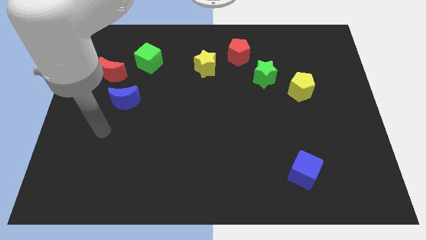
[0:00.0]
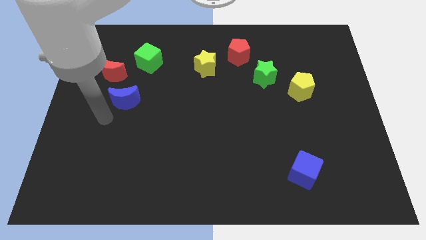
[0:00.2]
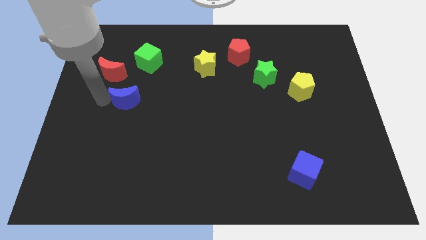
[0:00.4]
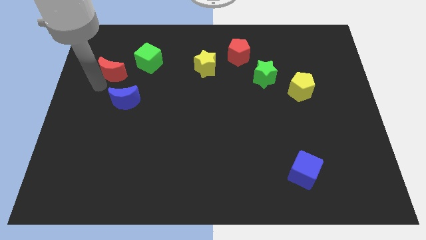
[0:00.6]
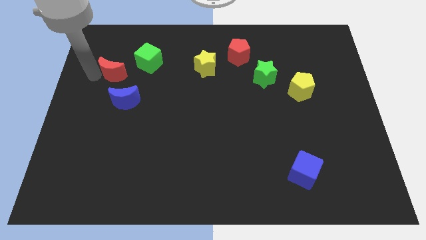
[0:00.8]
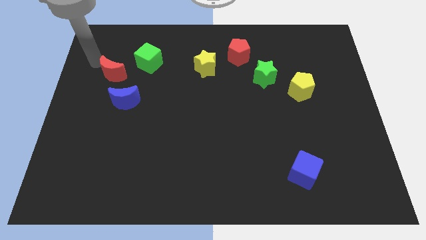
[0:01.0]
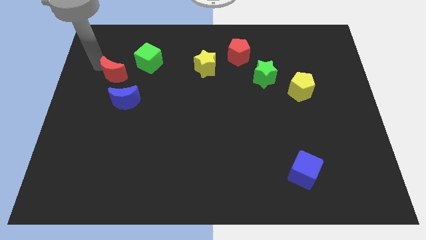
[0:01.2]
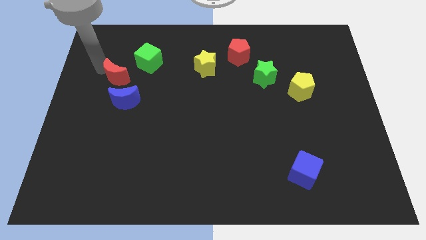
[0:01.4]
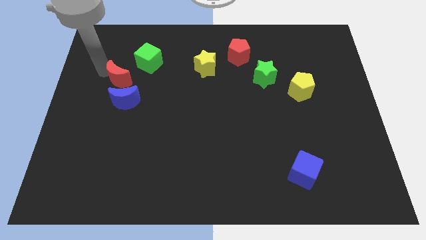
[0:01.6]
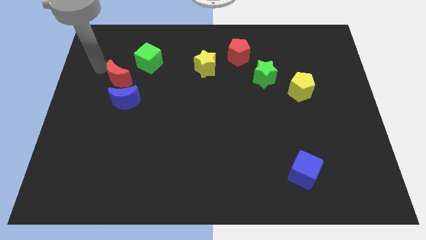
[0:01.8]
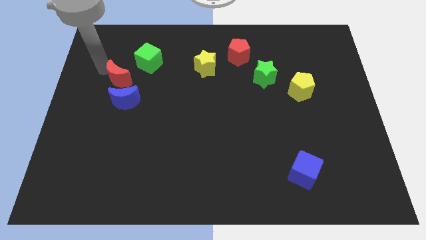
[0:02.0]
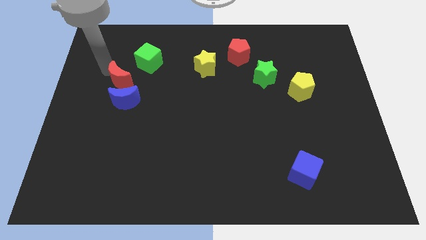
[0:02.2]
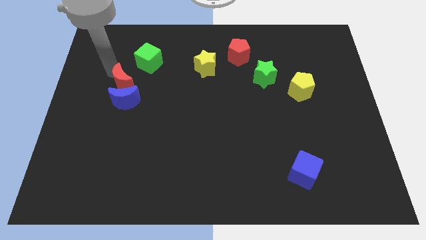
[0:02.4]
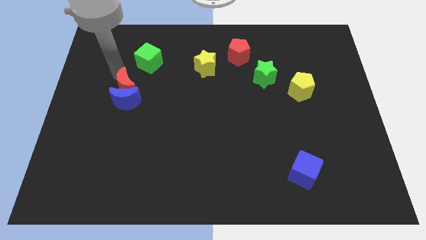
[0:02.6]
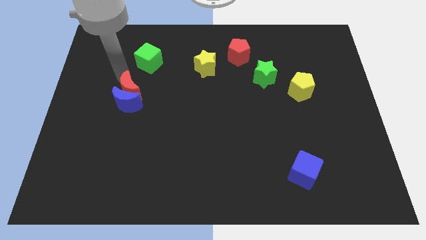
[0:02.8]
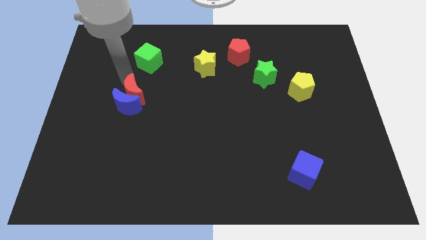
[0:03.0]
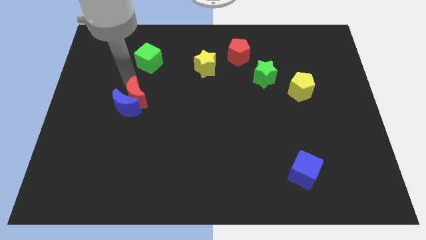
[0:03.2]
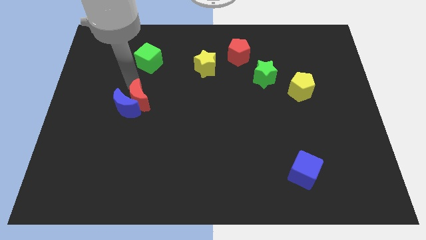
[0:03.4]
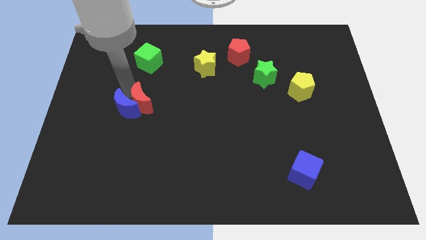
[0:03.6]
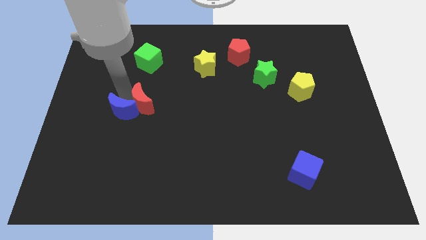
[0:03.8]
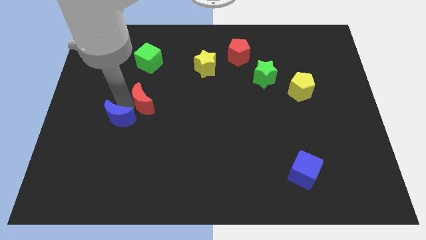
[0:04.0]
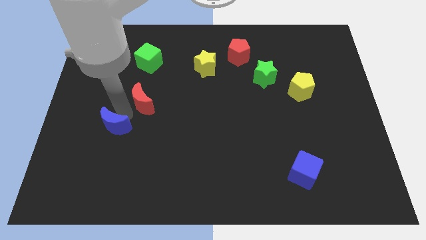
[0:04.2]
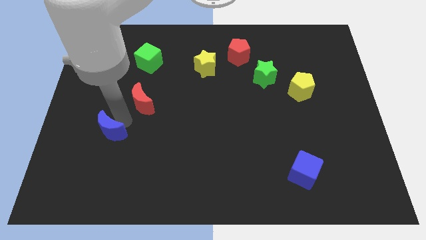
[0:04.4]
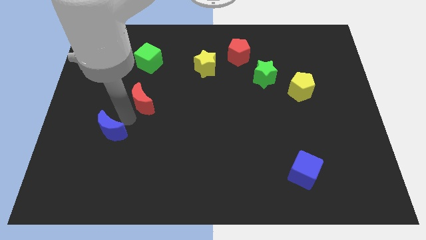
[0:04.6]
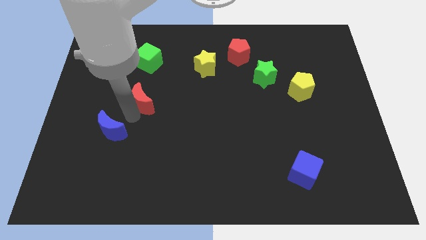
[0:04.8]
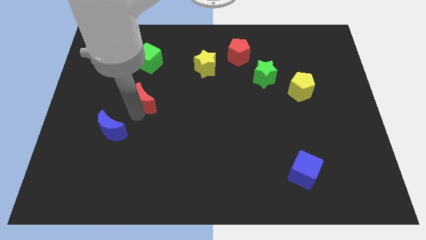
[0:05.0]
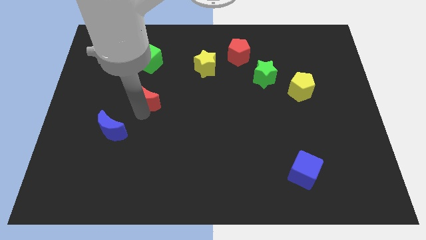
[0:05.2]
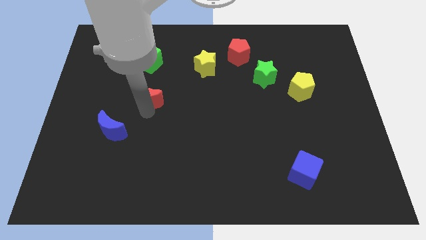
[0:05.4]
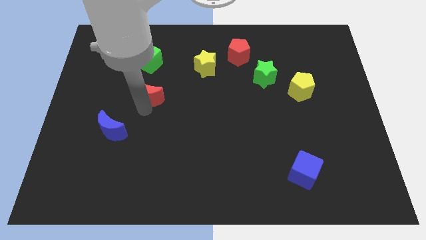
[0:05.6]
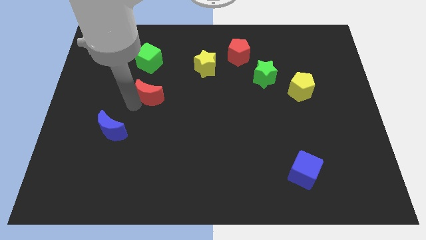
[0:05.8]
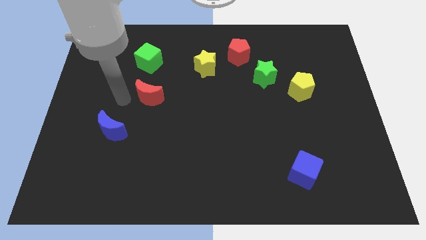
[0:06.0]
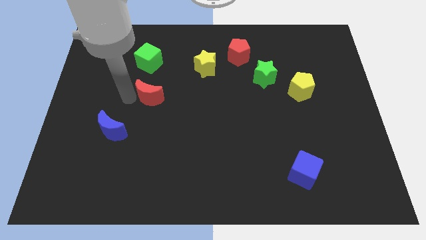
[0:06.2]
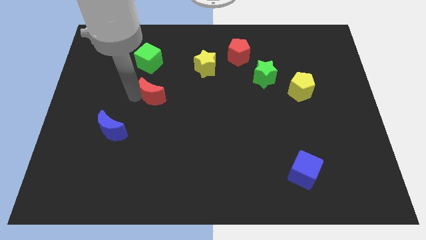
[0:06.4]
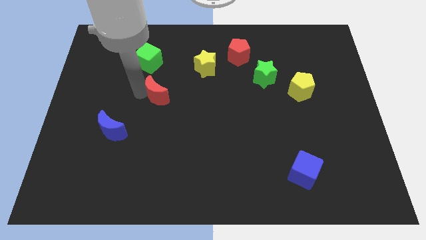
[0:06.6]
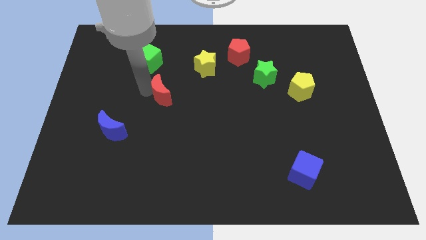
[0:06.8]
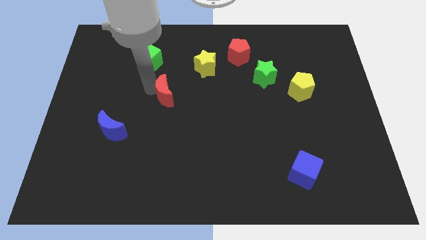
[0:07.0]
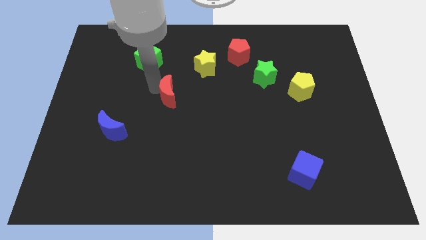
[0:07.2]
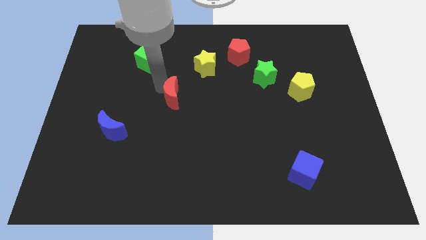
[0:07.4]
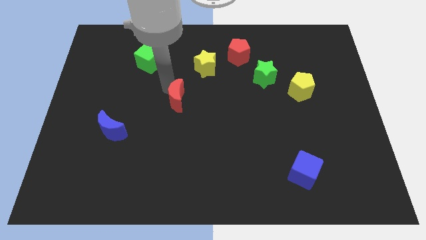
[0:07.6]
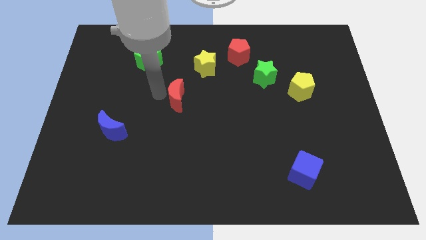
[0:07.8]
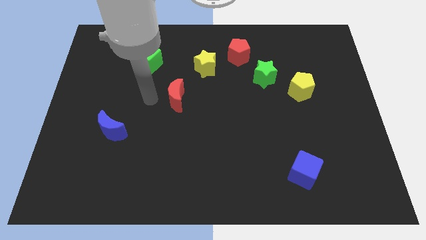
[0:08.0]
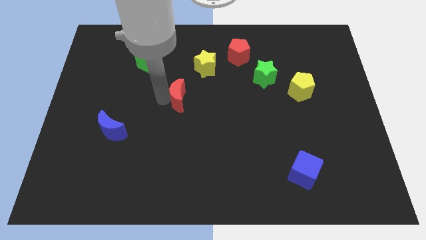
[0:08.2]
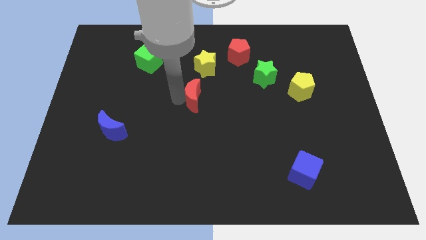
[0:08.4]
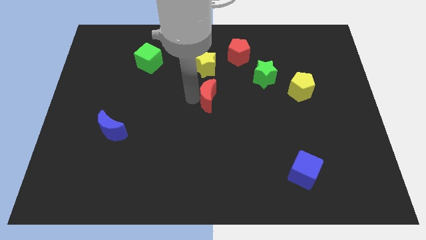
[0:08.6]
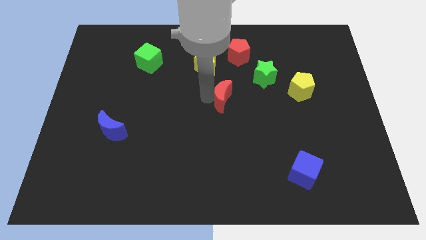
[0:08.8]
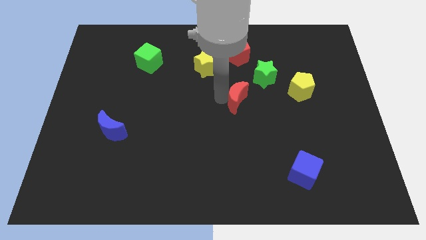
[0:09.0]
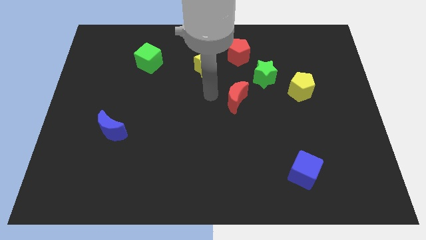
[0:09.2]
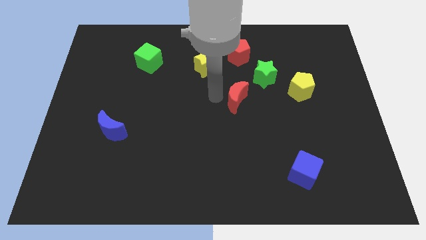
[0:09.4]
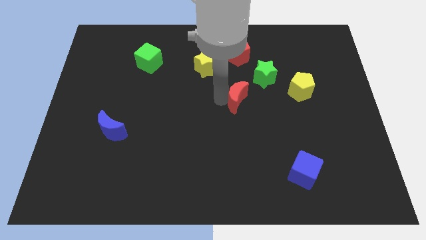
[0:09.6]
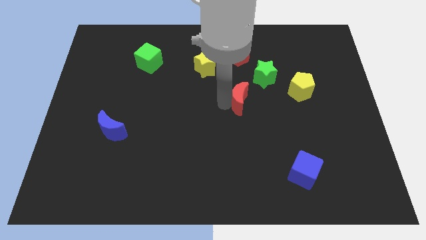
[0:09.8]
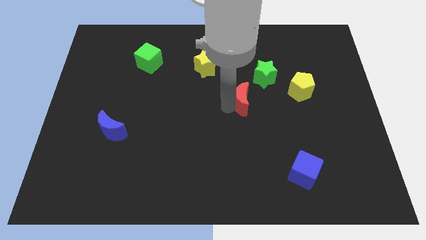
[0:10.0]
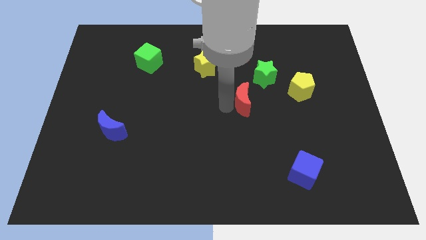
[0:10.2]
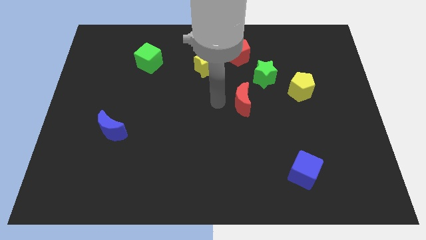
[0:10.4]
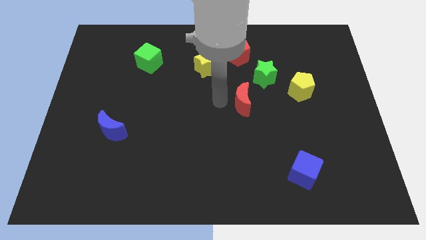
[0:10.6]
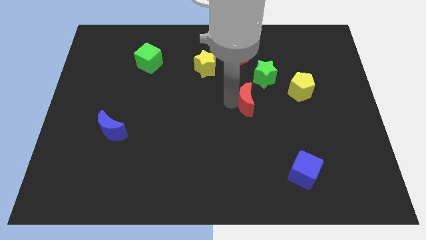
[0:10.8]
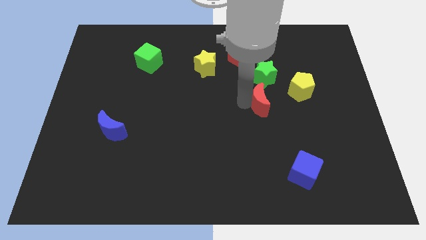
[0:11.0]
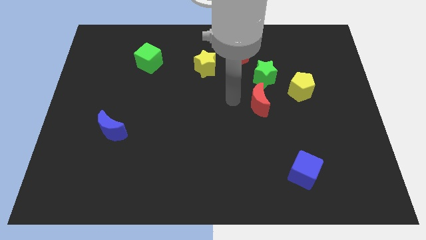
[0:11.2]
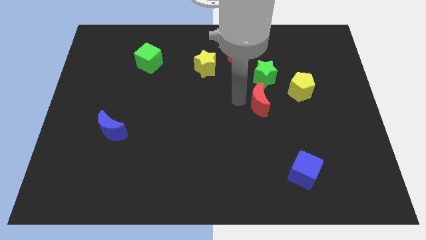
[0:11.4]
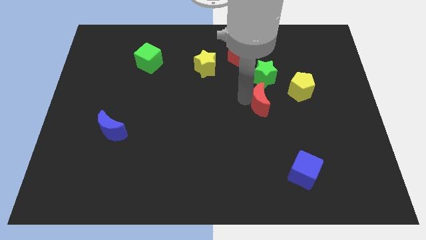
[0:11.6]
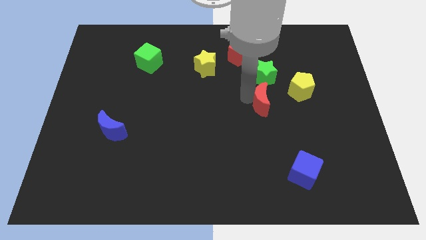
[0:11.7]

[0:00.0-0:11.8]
push the red moon diagonally down and to the left of the yellow pentagon

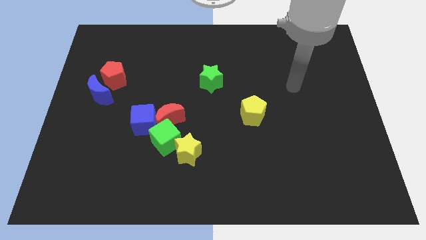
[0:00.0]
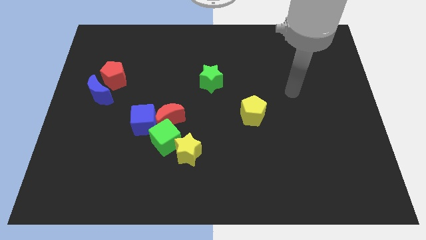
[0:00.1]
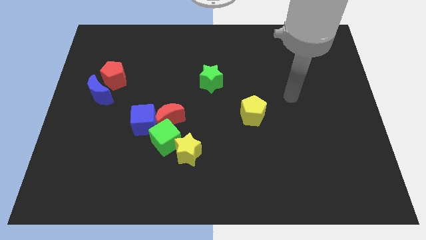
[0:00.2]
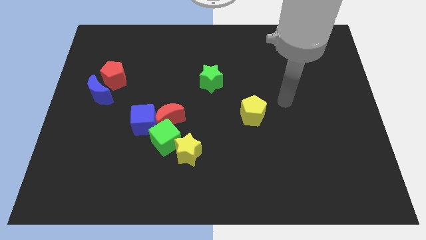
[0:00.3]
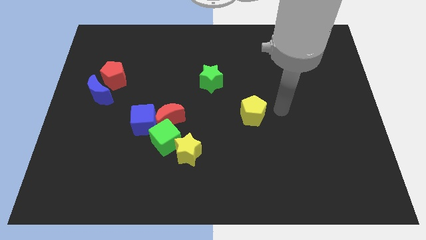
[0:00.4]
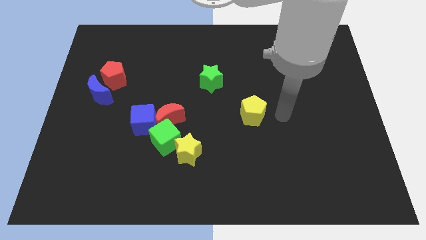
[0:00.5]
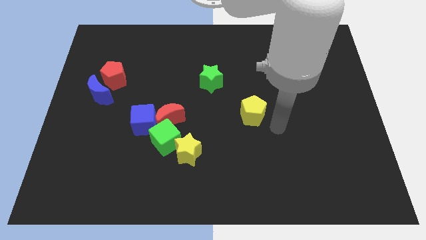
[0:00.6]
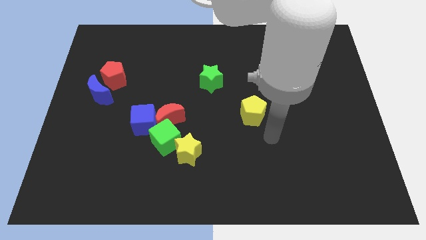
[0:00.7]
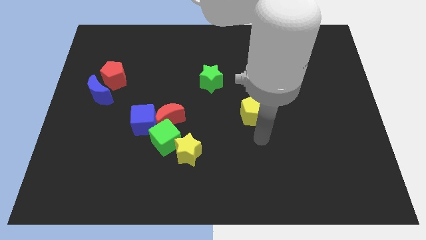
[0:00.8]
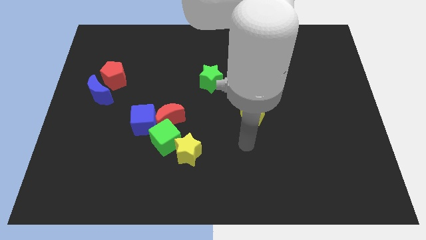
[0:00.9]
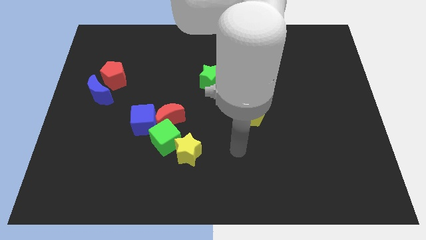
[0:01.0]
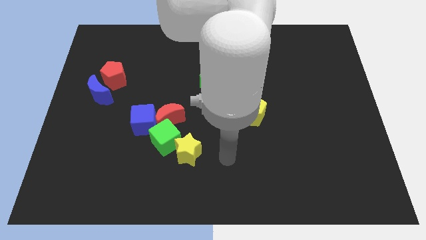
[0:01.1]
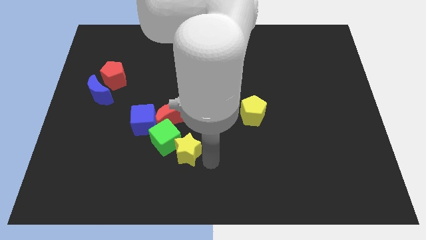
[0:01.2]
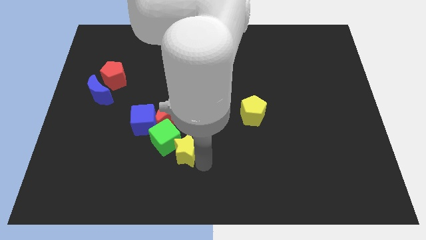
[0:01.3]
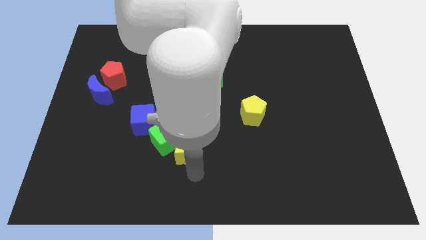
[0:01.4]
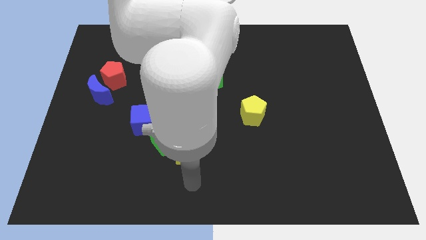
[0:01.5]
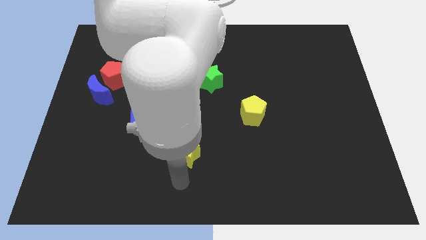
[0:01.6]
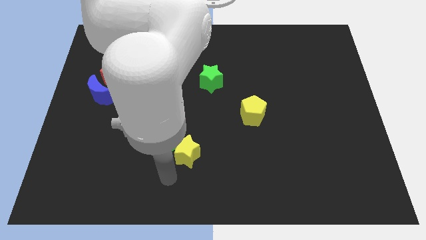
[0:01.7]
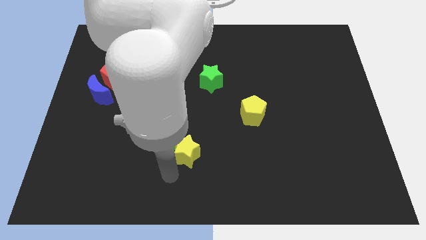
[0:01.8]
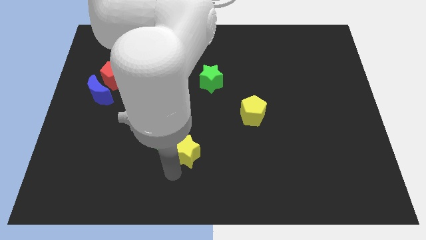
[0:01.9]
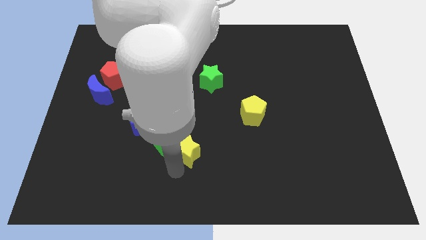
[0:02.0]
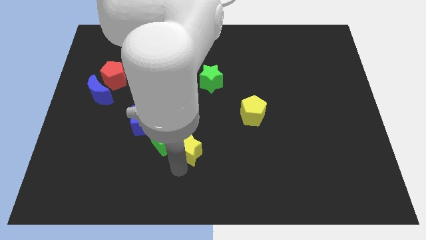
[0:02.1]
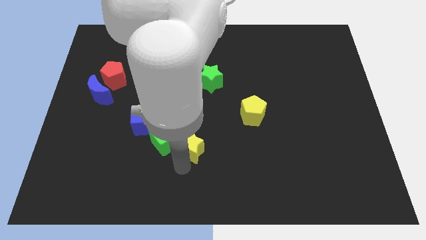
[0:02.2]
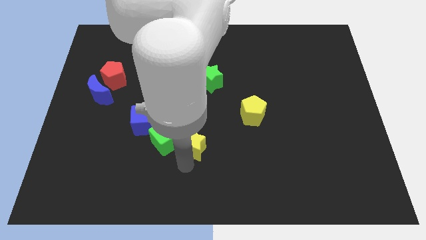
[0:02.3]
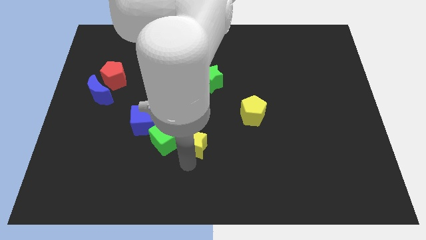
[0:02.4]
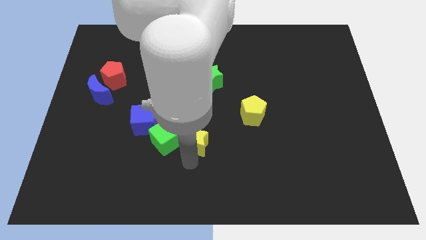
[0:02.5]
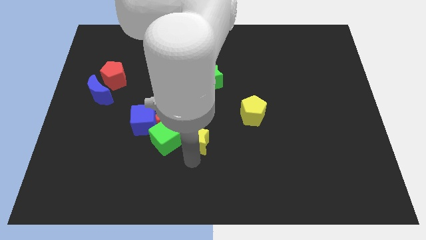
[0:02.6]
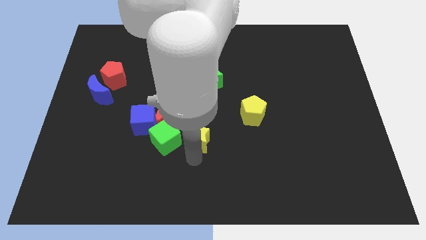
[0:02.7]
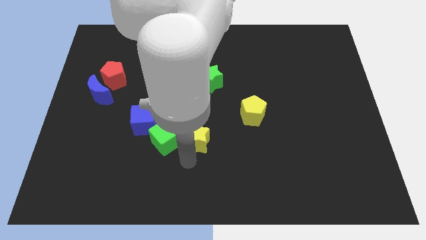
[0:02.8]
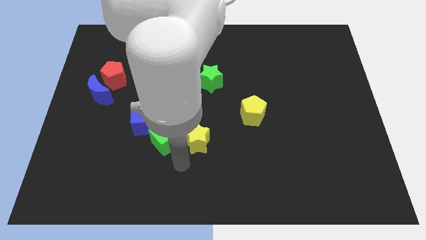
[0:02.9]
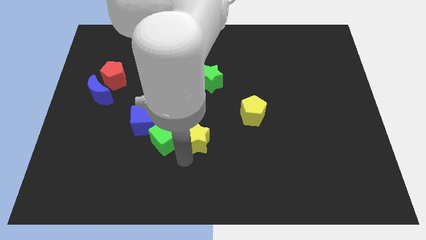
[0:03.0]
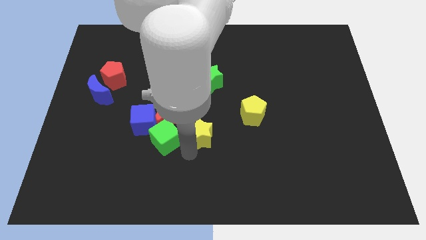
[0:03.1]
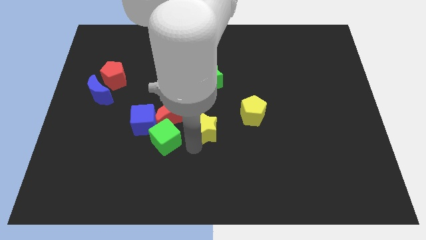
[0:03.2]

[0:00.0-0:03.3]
slide the yellow star to the right side of the red moon
